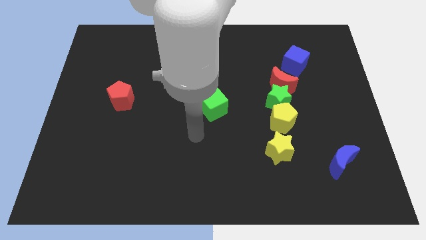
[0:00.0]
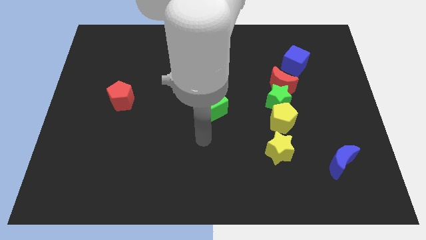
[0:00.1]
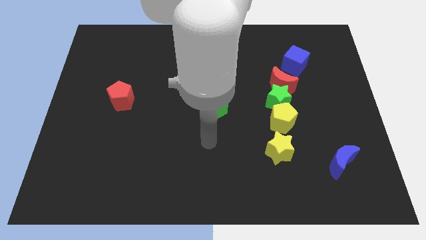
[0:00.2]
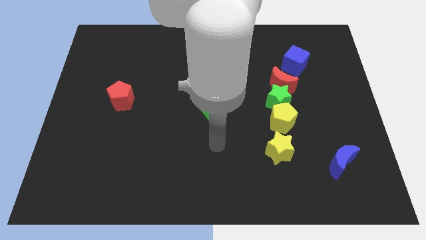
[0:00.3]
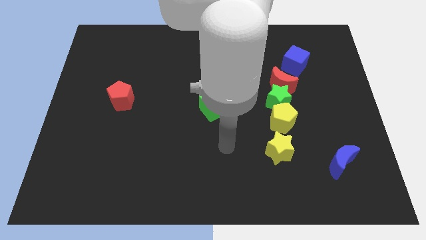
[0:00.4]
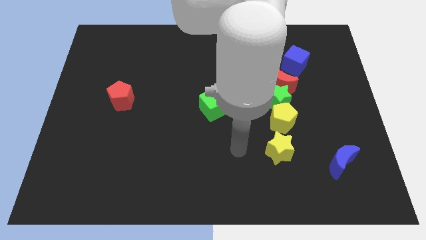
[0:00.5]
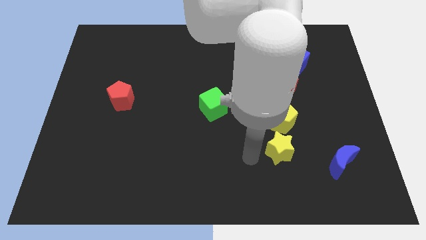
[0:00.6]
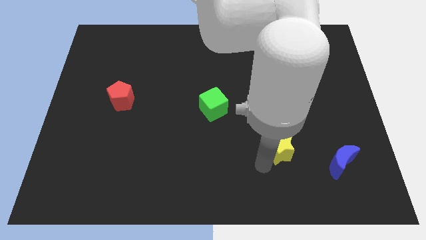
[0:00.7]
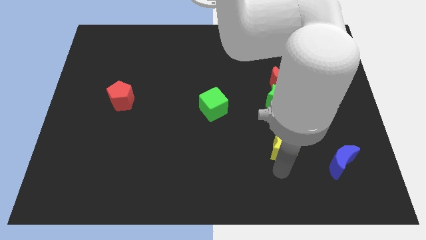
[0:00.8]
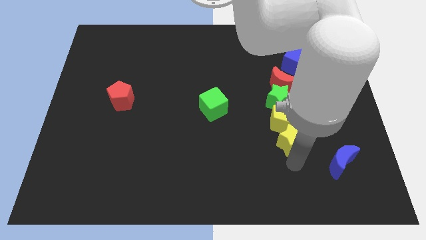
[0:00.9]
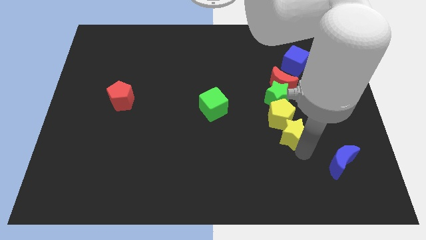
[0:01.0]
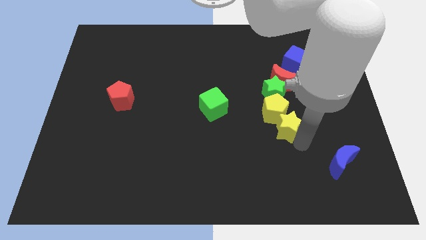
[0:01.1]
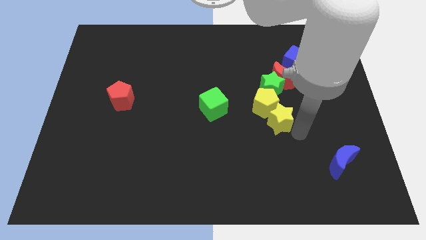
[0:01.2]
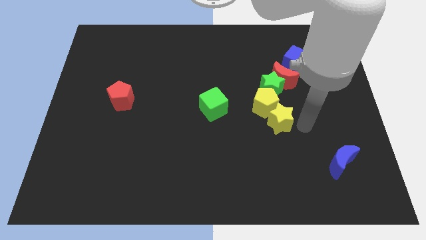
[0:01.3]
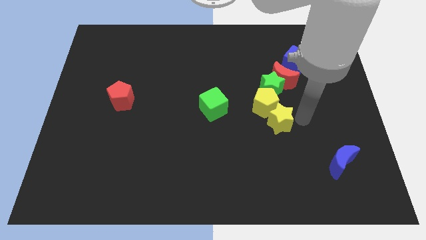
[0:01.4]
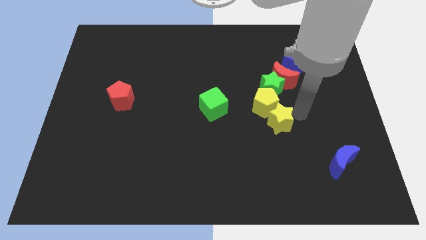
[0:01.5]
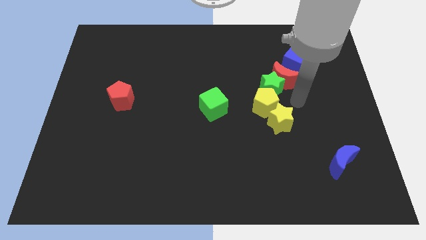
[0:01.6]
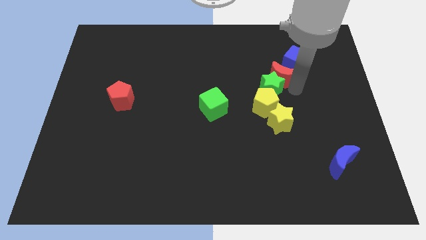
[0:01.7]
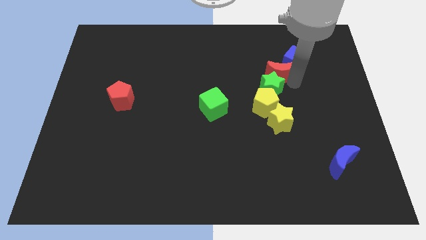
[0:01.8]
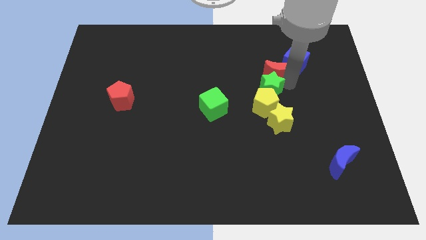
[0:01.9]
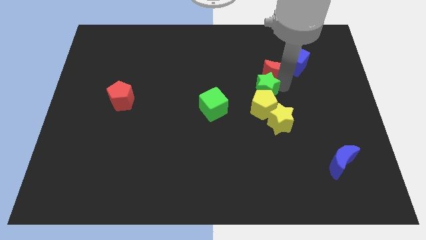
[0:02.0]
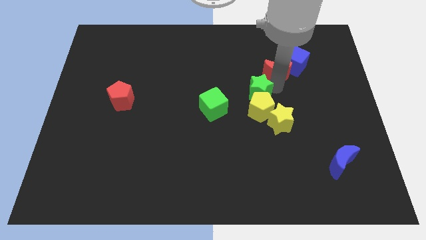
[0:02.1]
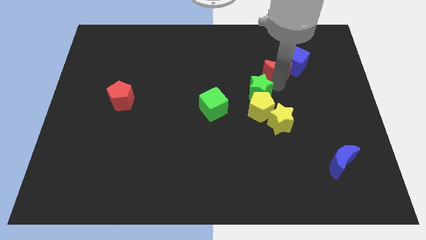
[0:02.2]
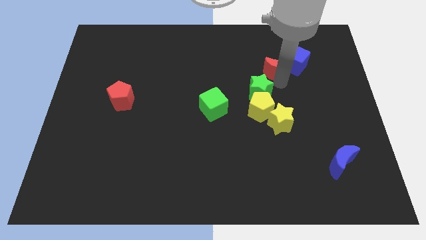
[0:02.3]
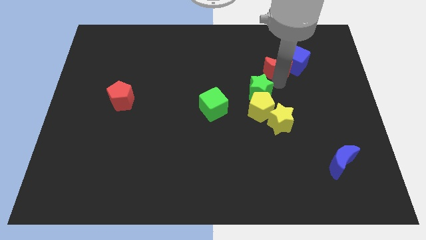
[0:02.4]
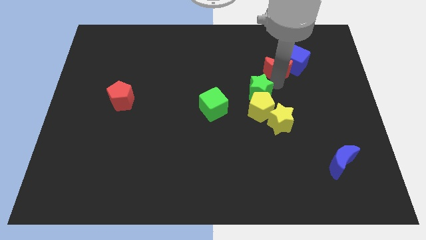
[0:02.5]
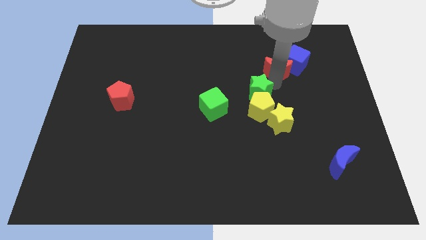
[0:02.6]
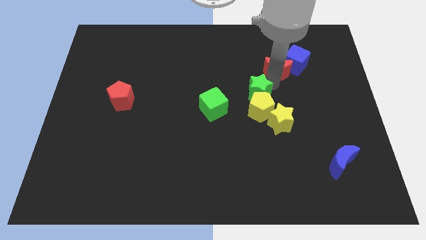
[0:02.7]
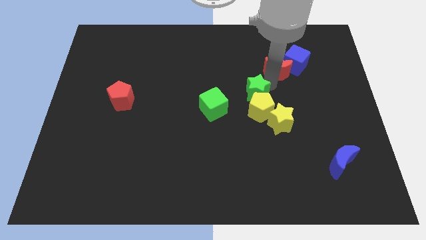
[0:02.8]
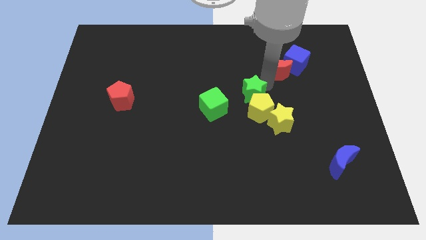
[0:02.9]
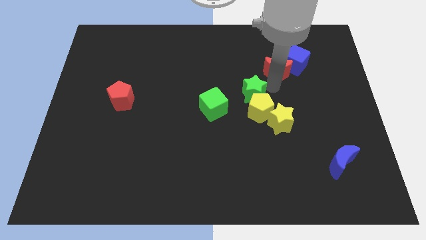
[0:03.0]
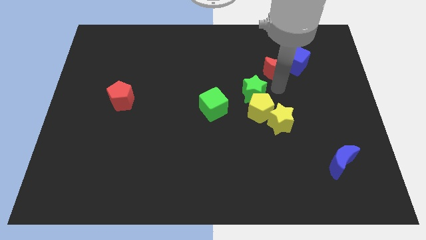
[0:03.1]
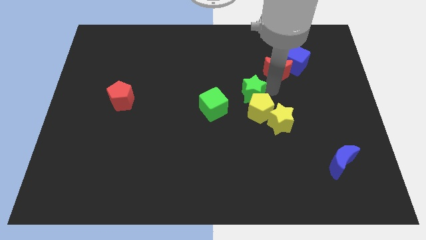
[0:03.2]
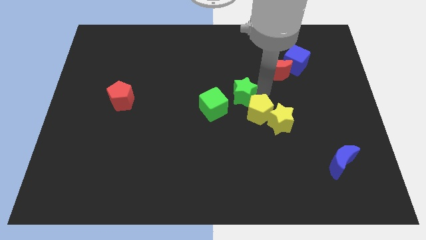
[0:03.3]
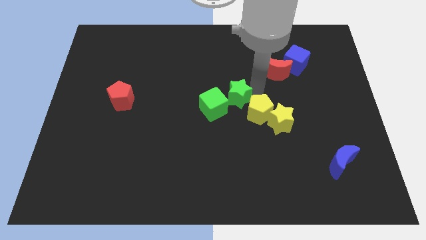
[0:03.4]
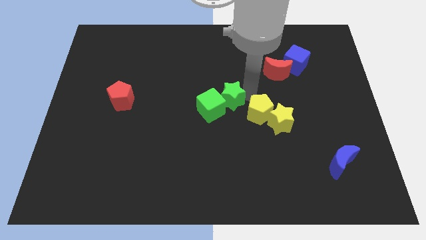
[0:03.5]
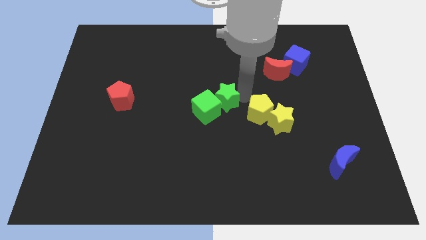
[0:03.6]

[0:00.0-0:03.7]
pull the green star apart from the yellow pentagon and red moon

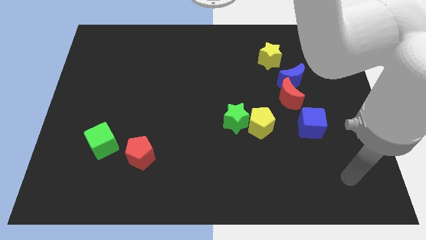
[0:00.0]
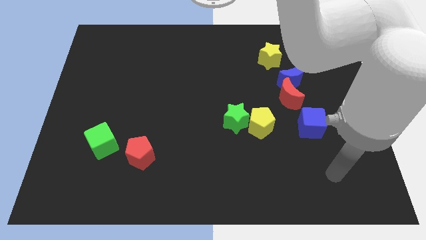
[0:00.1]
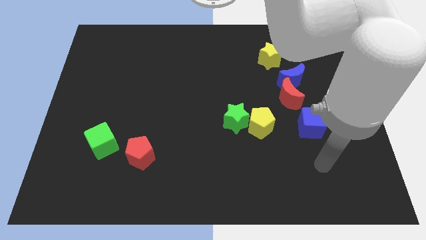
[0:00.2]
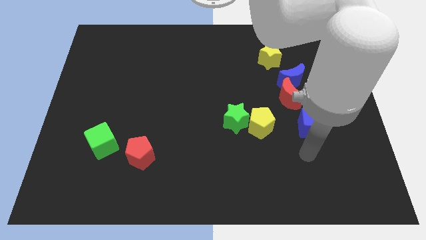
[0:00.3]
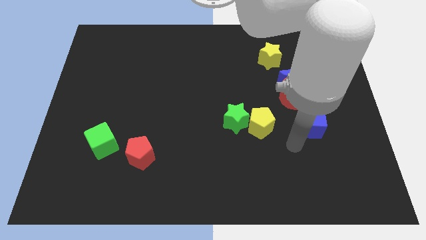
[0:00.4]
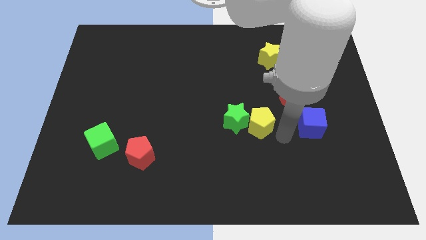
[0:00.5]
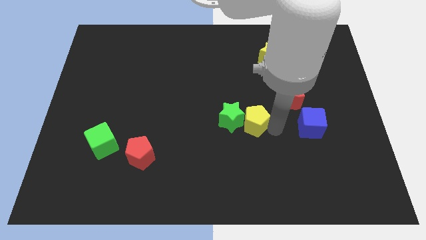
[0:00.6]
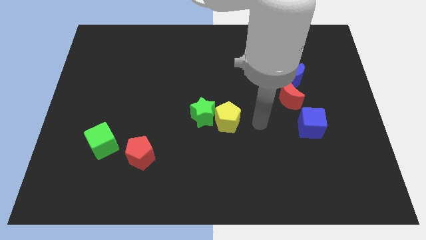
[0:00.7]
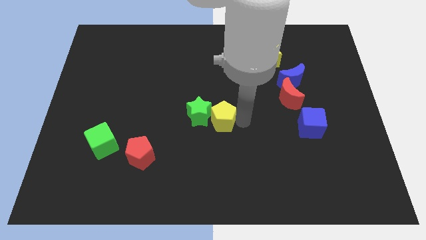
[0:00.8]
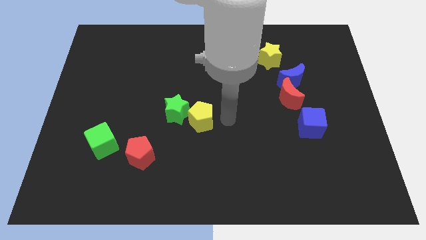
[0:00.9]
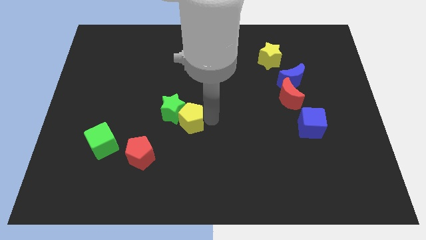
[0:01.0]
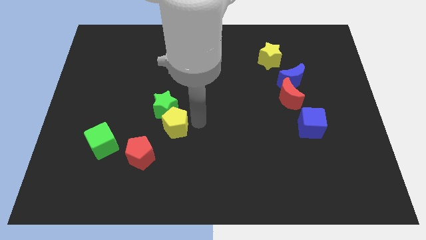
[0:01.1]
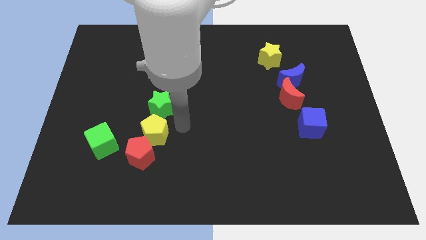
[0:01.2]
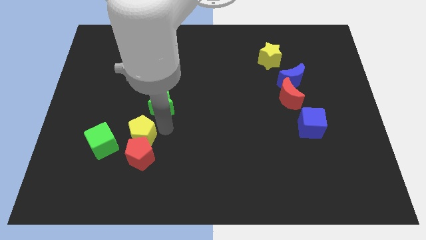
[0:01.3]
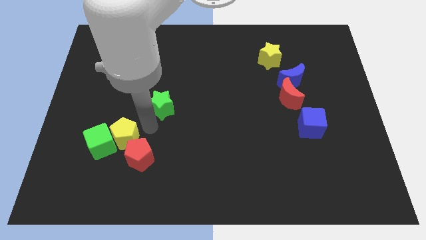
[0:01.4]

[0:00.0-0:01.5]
separate the green star from the yellow pentagon

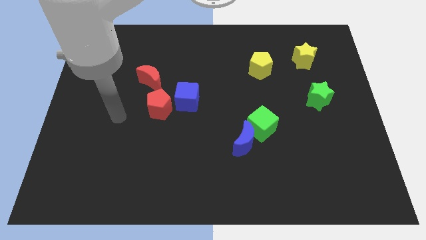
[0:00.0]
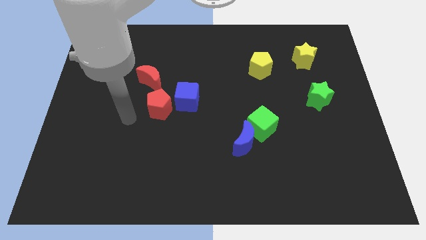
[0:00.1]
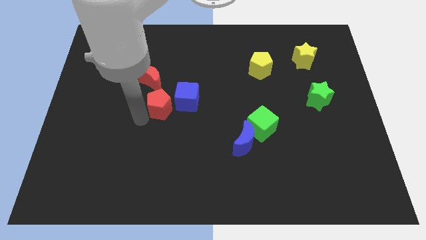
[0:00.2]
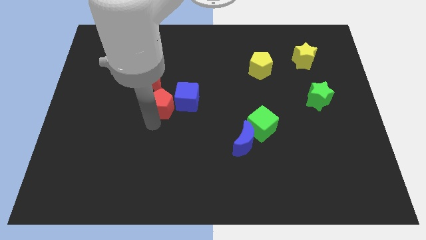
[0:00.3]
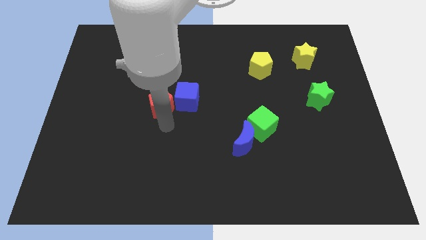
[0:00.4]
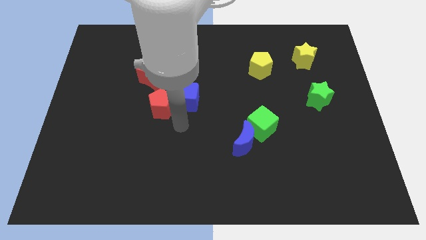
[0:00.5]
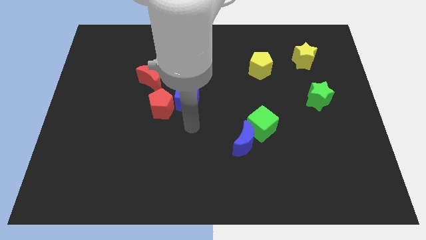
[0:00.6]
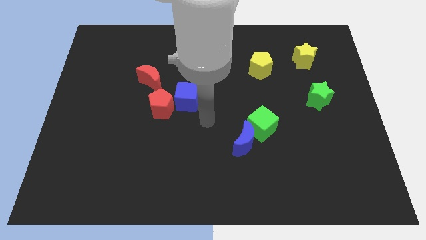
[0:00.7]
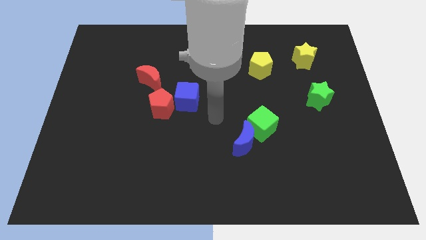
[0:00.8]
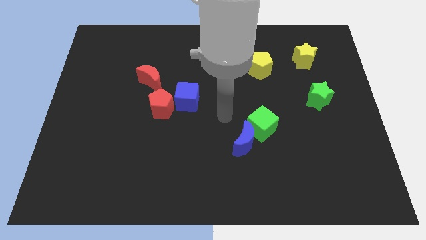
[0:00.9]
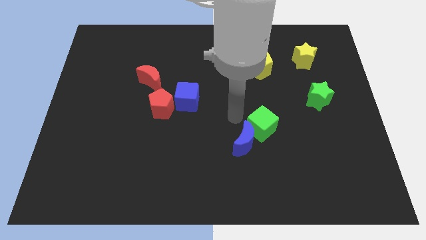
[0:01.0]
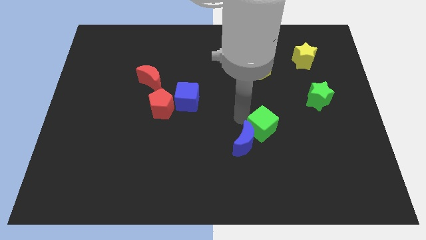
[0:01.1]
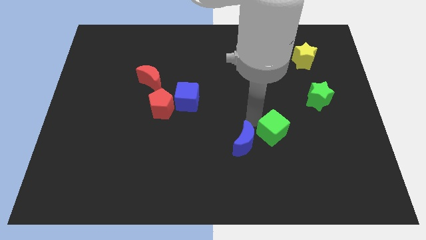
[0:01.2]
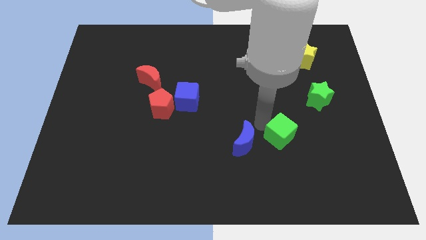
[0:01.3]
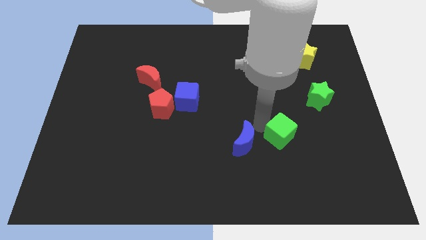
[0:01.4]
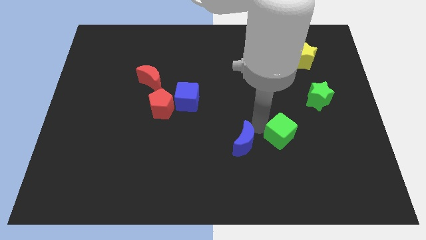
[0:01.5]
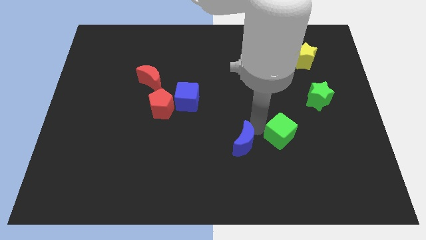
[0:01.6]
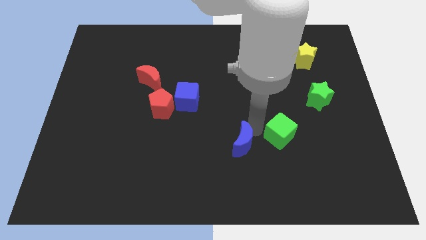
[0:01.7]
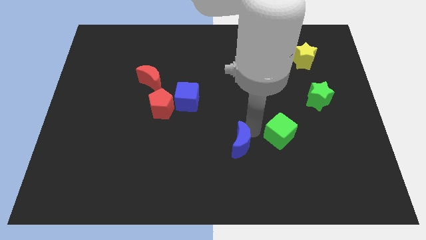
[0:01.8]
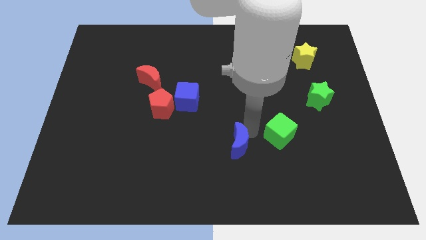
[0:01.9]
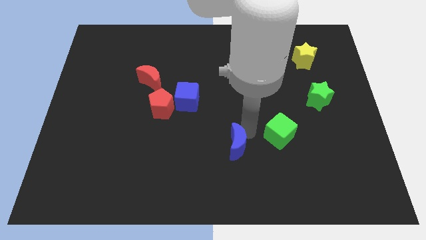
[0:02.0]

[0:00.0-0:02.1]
pull the blue moon apart from the green cube

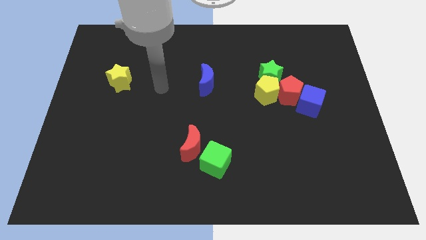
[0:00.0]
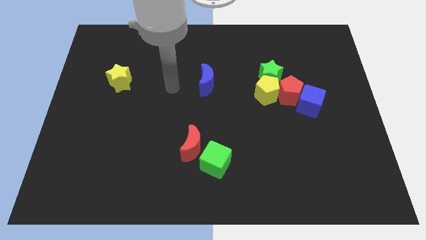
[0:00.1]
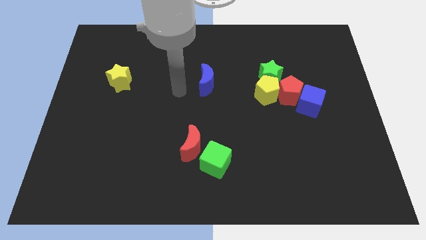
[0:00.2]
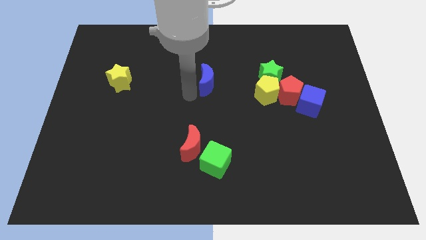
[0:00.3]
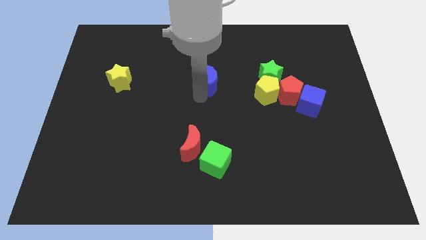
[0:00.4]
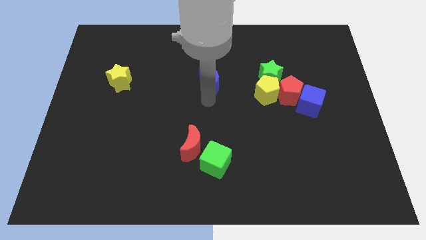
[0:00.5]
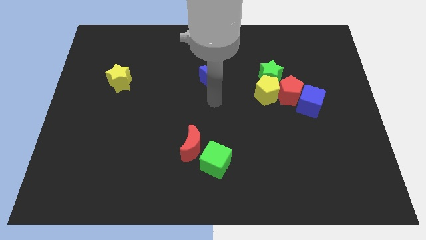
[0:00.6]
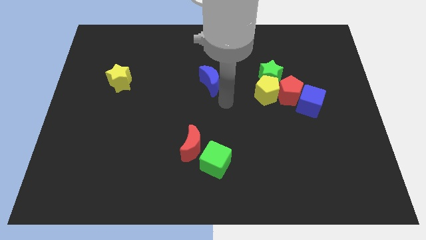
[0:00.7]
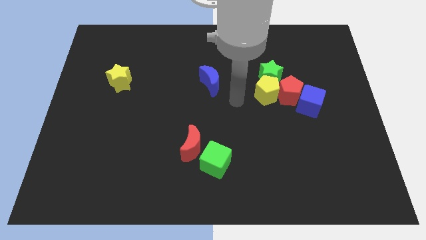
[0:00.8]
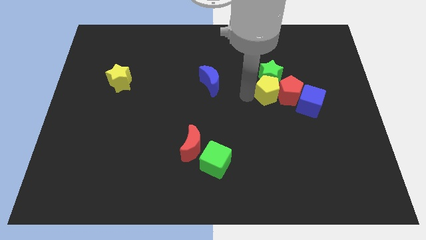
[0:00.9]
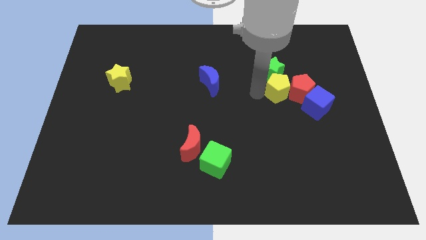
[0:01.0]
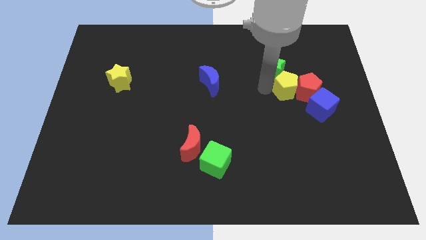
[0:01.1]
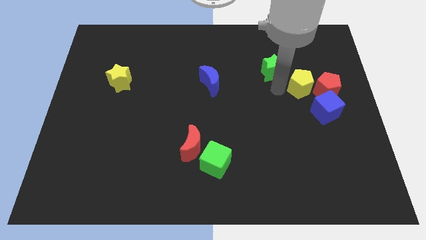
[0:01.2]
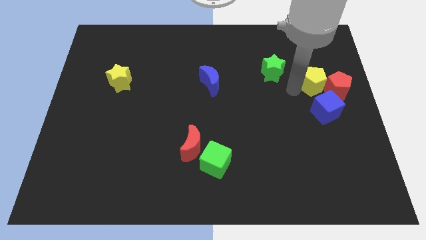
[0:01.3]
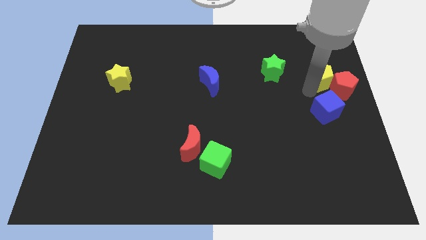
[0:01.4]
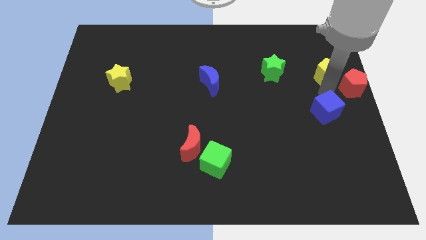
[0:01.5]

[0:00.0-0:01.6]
pull the blue cube apart from the red pentagon

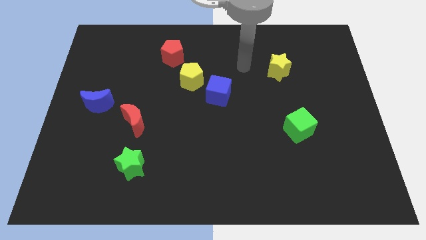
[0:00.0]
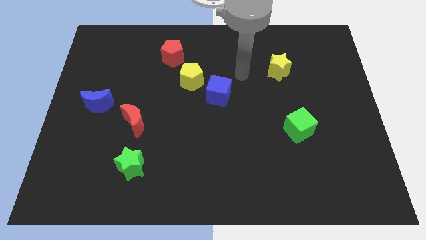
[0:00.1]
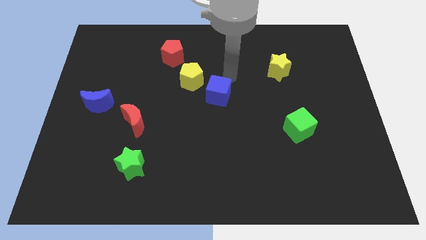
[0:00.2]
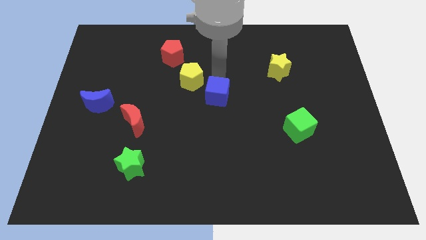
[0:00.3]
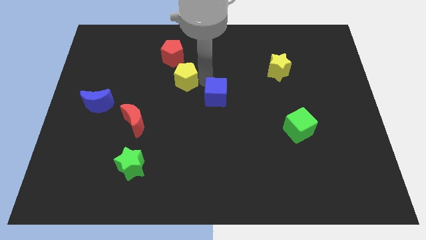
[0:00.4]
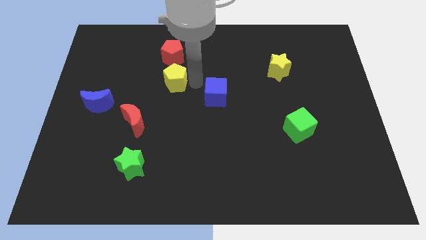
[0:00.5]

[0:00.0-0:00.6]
move the blue cube away from the yellow pentagon
